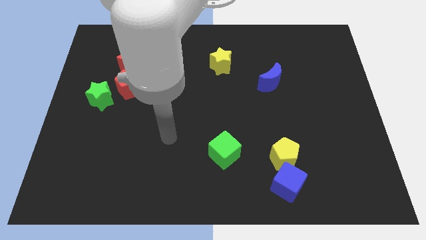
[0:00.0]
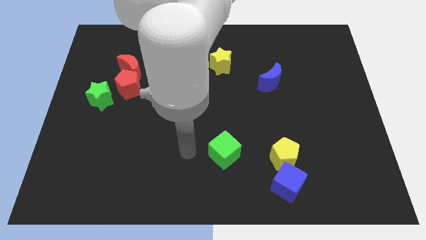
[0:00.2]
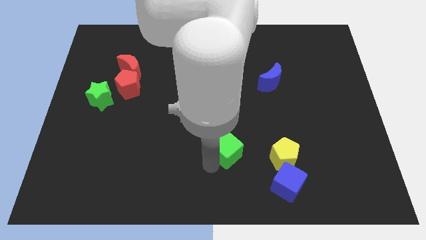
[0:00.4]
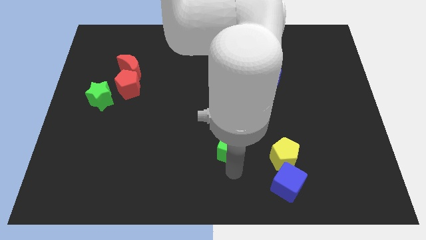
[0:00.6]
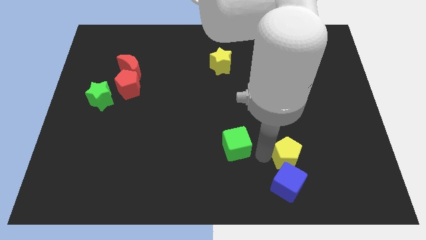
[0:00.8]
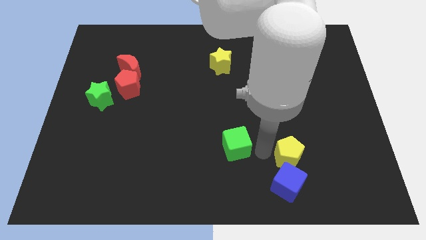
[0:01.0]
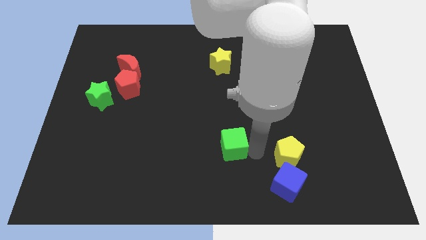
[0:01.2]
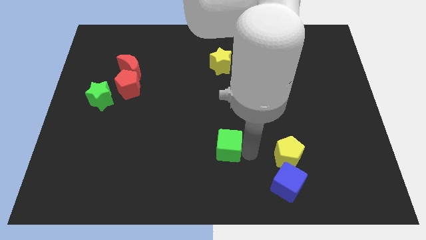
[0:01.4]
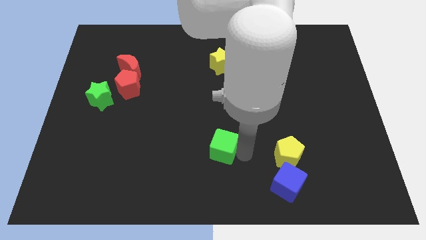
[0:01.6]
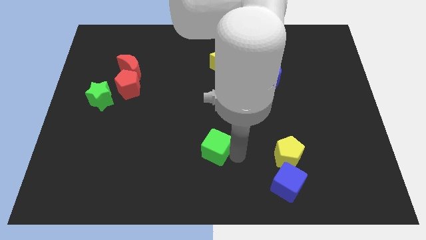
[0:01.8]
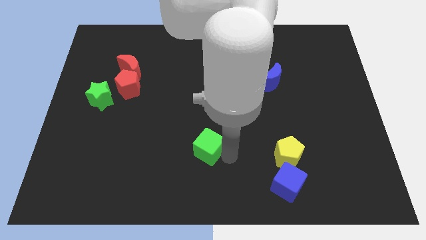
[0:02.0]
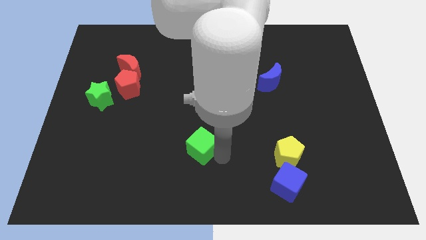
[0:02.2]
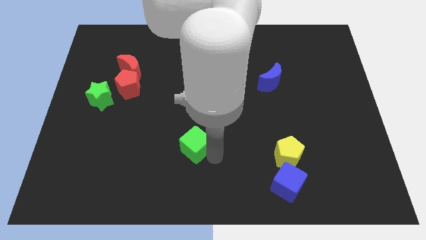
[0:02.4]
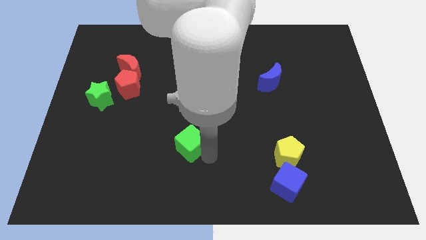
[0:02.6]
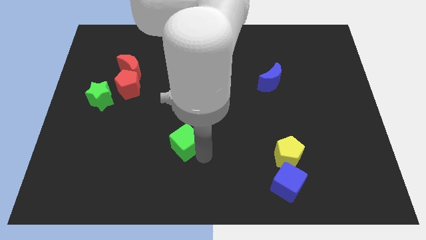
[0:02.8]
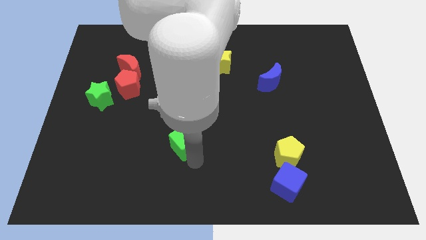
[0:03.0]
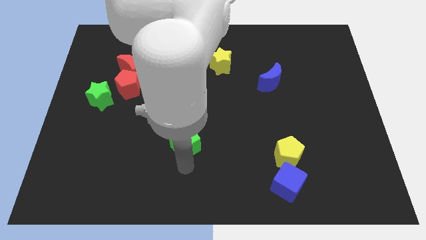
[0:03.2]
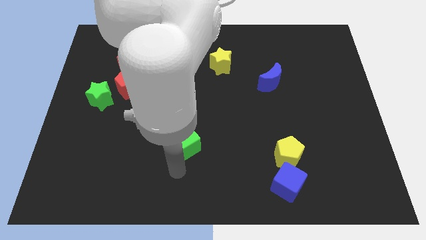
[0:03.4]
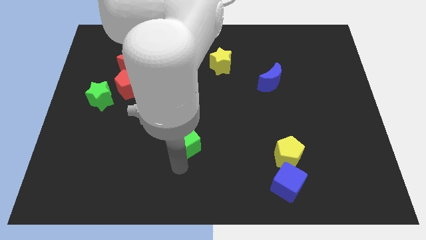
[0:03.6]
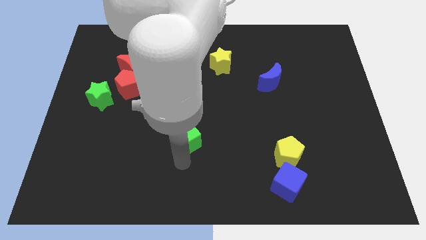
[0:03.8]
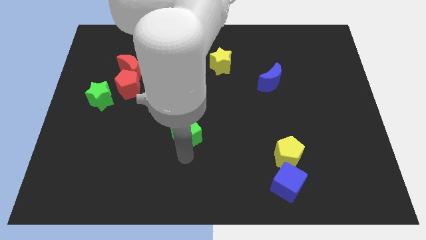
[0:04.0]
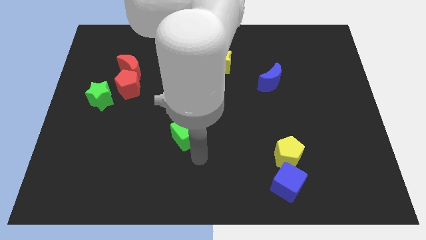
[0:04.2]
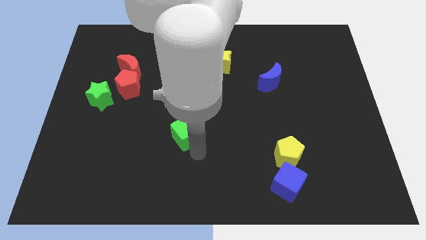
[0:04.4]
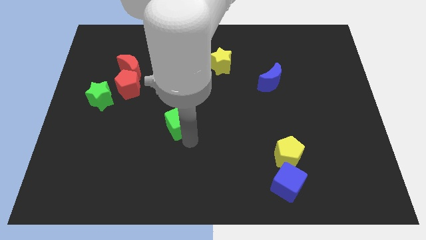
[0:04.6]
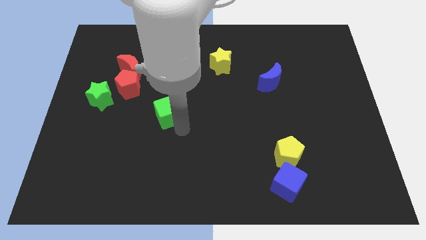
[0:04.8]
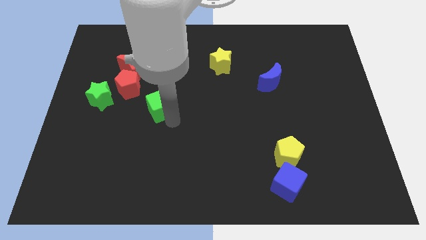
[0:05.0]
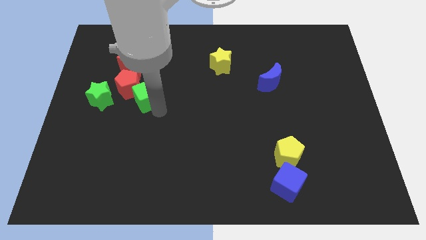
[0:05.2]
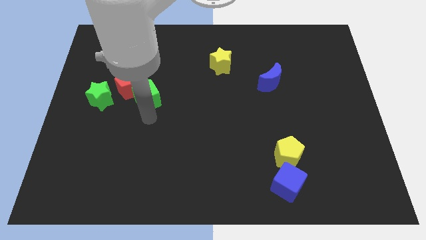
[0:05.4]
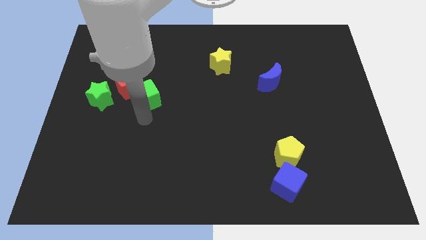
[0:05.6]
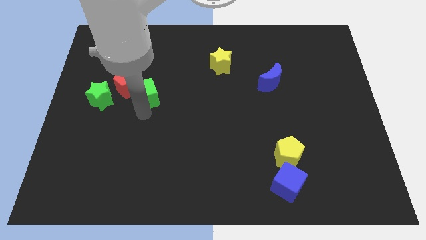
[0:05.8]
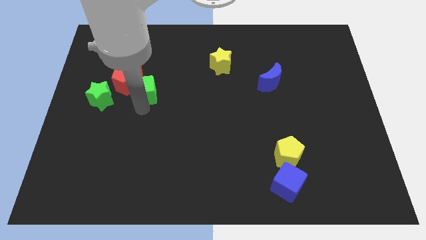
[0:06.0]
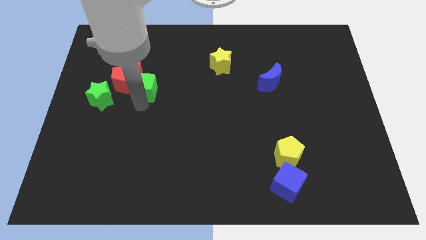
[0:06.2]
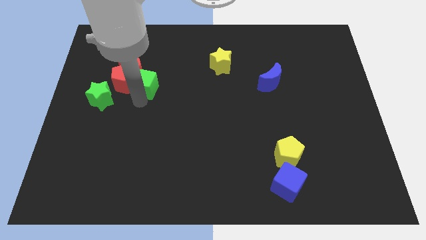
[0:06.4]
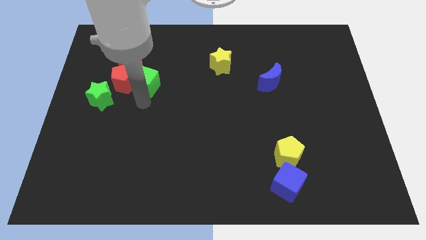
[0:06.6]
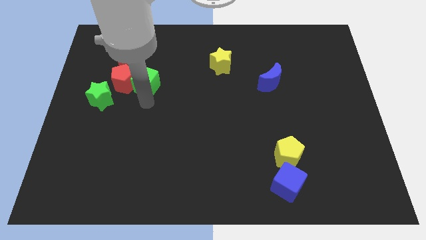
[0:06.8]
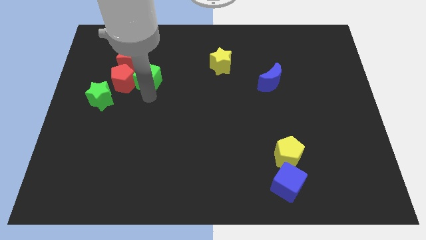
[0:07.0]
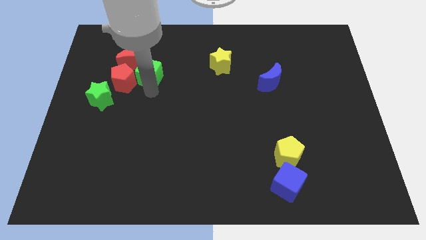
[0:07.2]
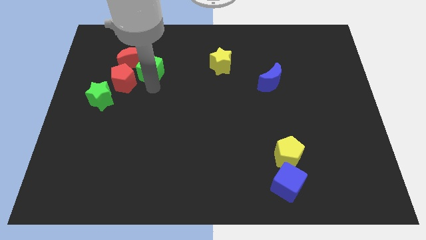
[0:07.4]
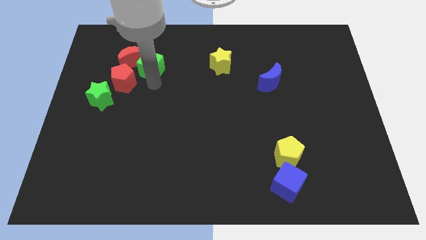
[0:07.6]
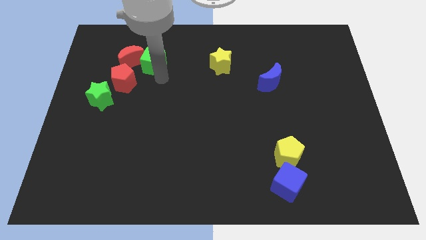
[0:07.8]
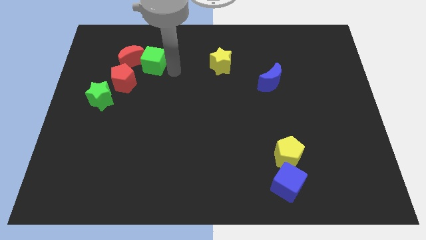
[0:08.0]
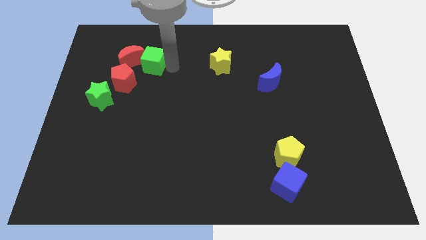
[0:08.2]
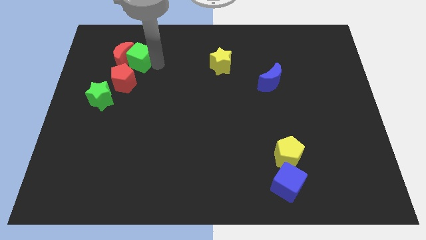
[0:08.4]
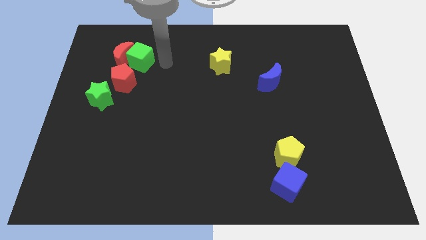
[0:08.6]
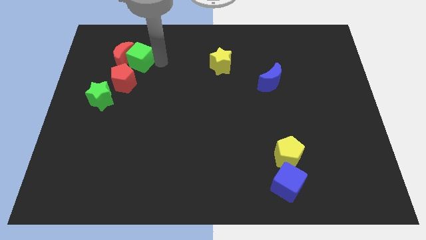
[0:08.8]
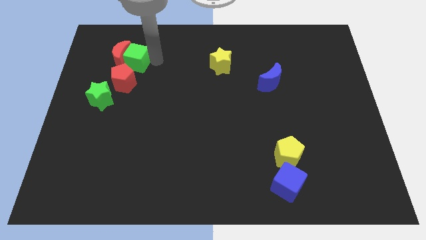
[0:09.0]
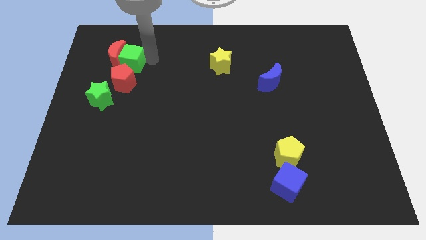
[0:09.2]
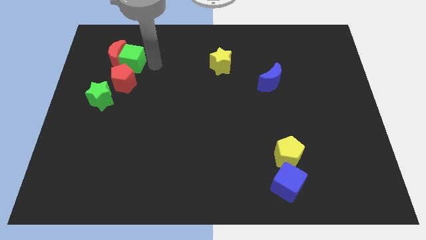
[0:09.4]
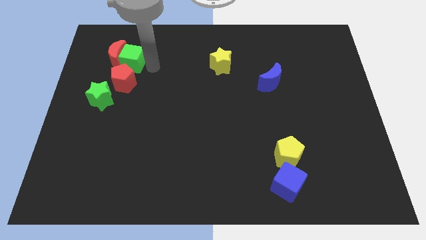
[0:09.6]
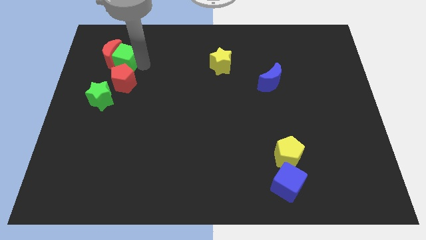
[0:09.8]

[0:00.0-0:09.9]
push the green cube diagonally up and to the left of the red pentagon

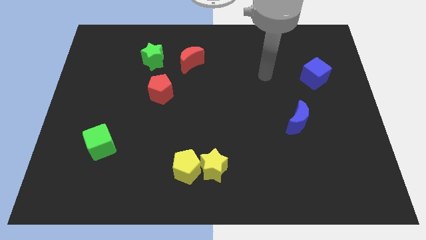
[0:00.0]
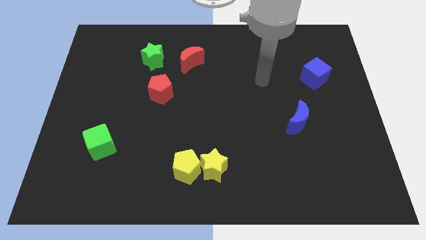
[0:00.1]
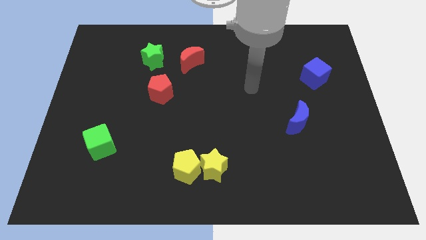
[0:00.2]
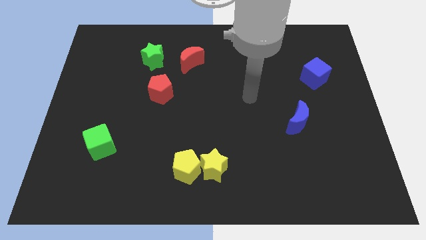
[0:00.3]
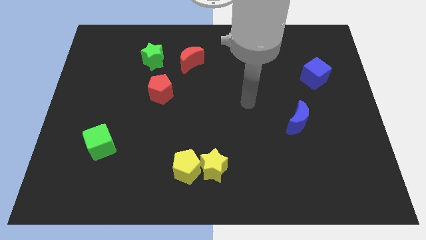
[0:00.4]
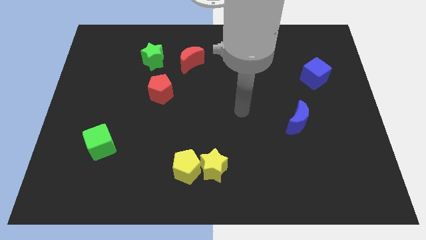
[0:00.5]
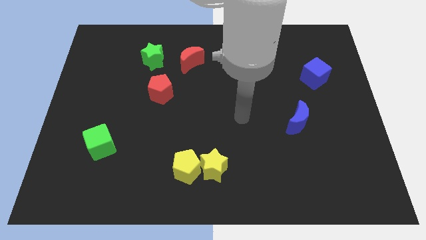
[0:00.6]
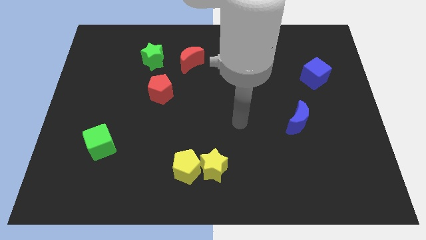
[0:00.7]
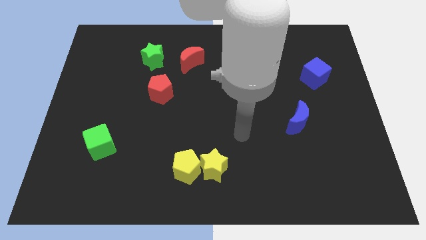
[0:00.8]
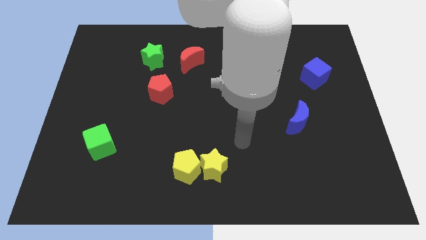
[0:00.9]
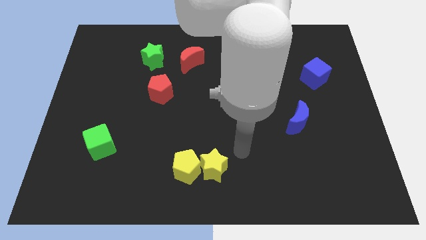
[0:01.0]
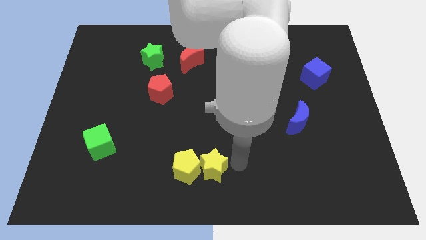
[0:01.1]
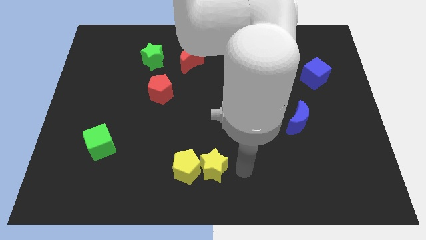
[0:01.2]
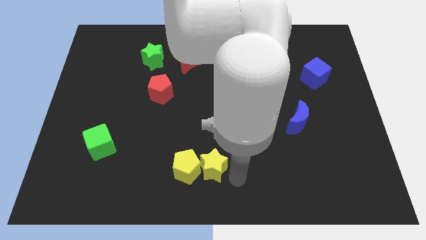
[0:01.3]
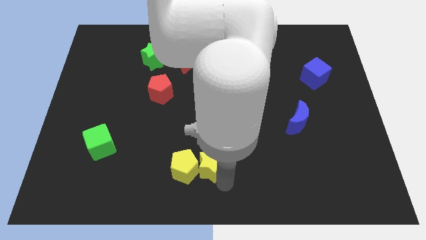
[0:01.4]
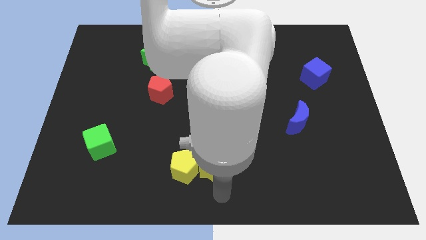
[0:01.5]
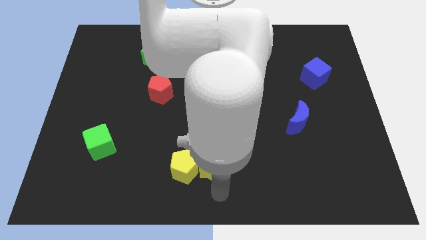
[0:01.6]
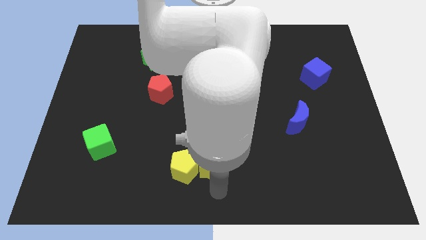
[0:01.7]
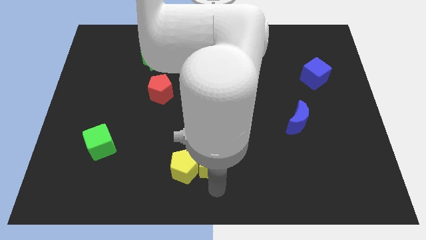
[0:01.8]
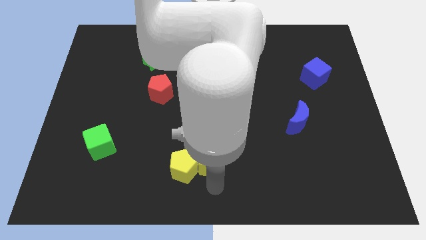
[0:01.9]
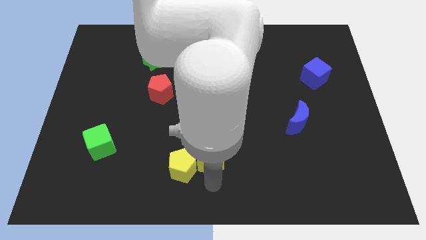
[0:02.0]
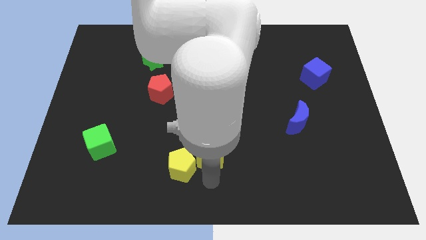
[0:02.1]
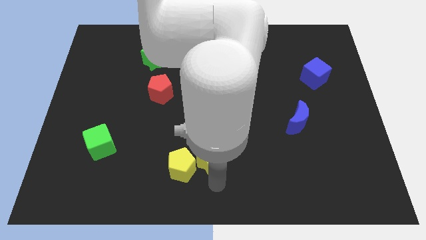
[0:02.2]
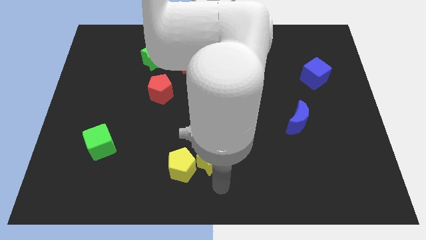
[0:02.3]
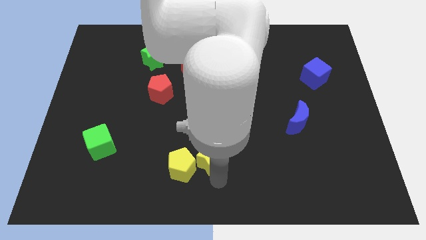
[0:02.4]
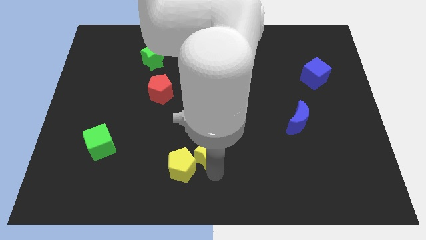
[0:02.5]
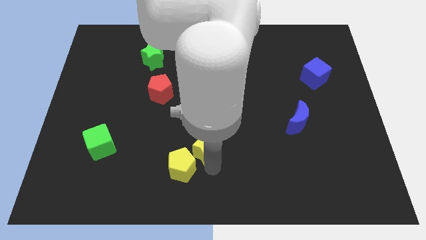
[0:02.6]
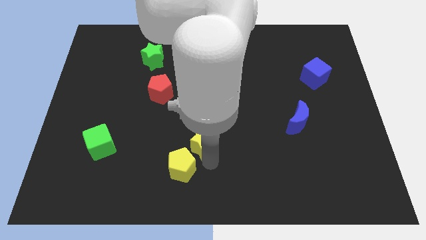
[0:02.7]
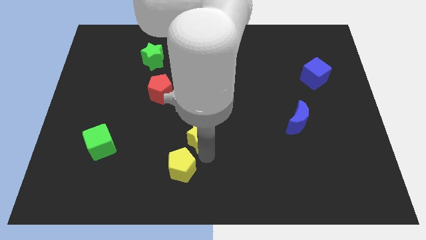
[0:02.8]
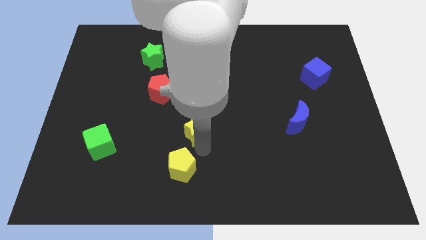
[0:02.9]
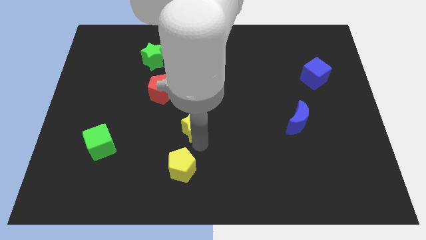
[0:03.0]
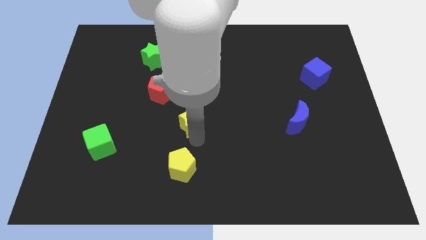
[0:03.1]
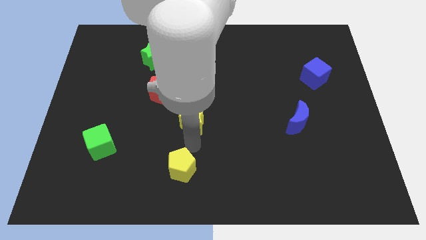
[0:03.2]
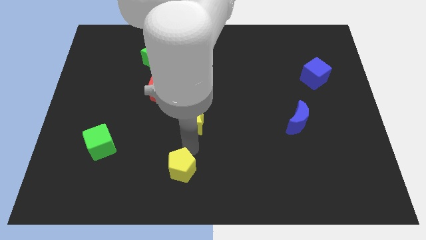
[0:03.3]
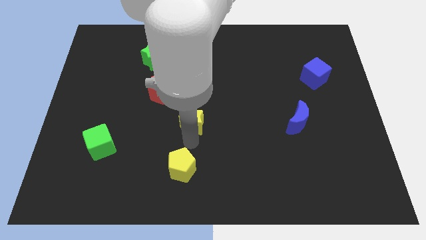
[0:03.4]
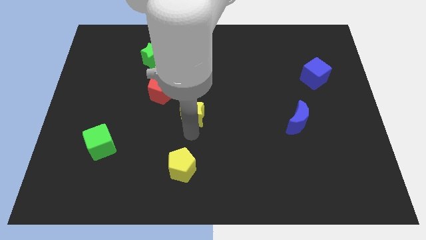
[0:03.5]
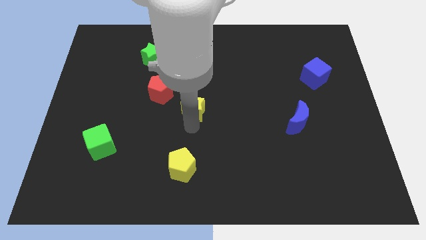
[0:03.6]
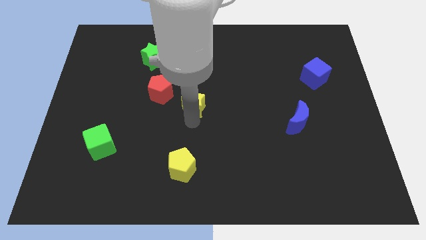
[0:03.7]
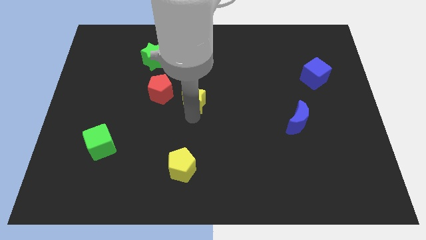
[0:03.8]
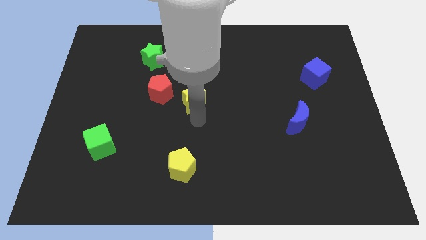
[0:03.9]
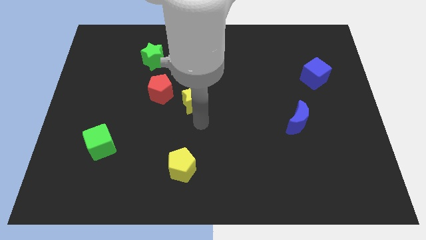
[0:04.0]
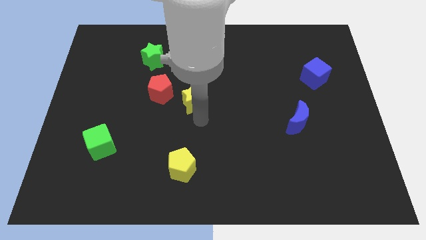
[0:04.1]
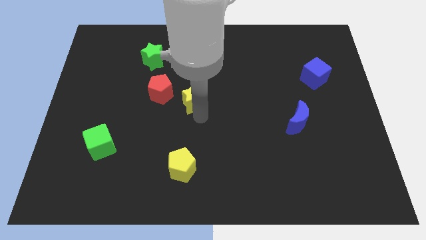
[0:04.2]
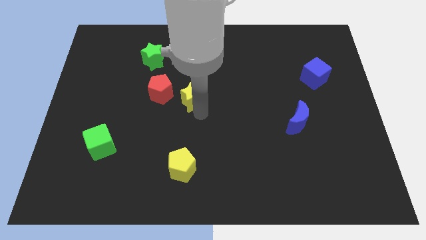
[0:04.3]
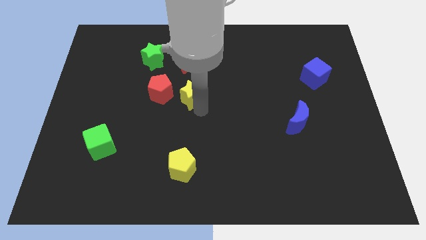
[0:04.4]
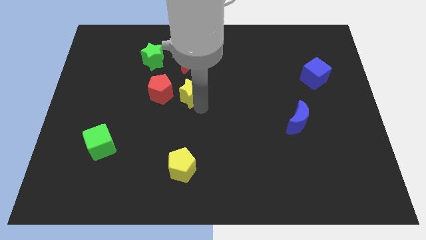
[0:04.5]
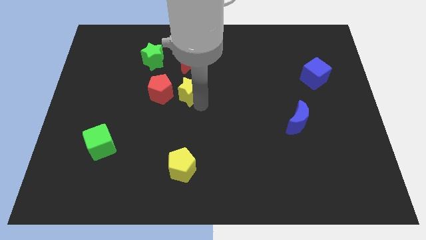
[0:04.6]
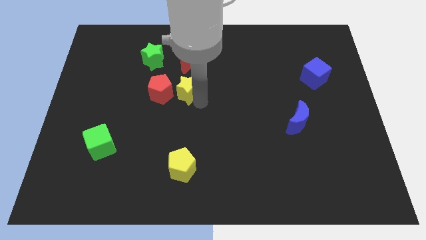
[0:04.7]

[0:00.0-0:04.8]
move the yellow star to the top right side of the red pentagon
